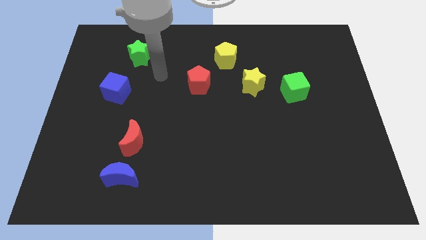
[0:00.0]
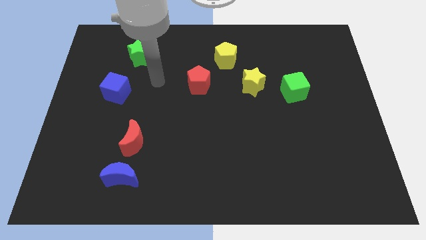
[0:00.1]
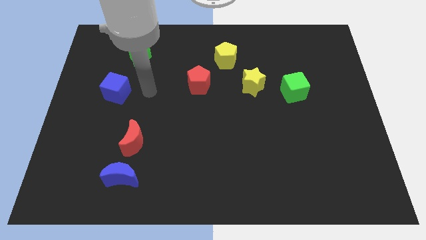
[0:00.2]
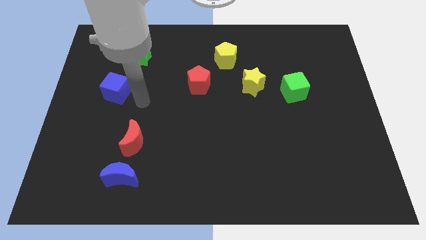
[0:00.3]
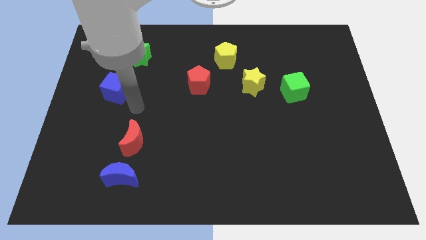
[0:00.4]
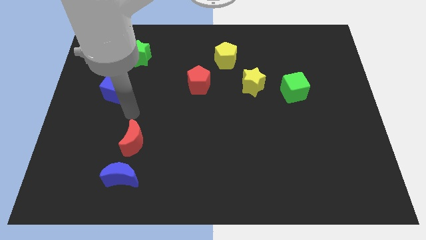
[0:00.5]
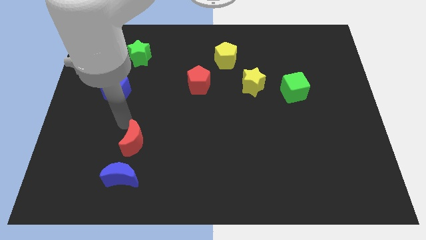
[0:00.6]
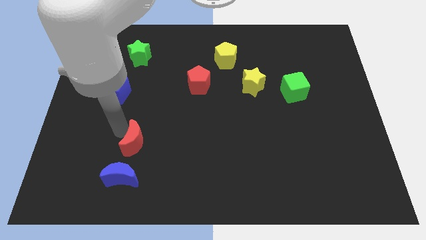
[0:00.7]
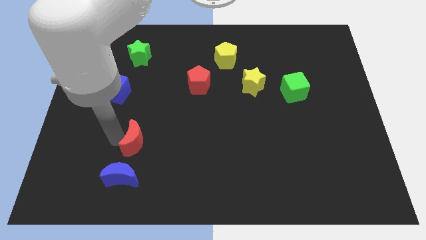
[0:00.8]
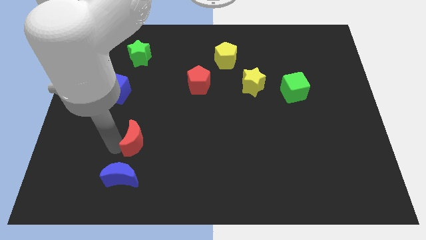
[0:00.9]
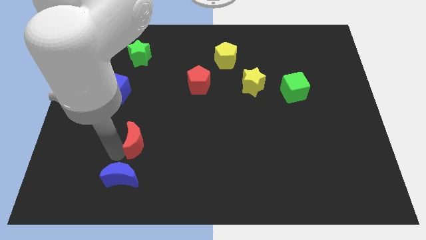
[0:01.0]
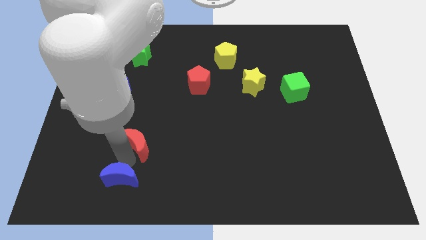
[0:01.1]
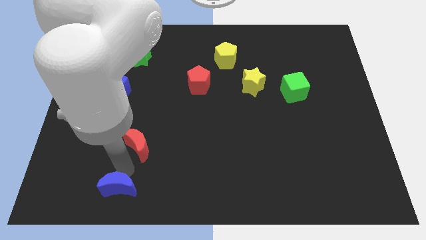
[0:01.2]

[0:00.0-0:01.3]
pull the red moon apart from the blue moon

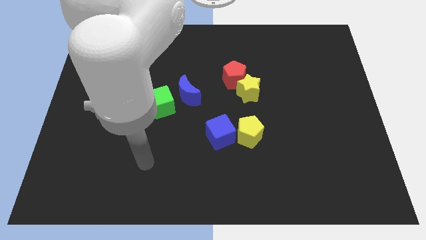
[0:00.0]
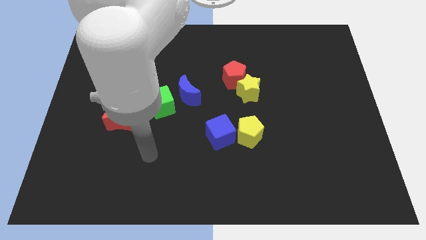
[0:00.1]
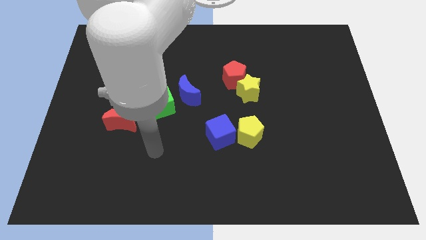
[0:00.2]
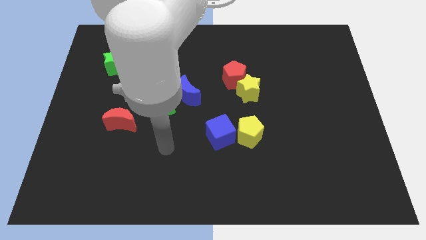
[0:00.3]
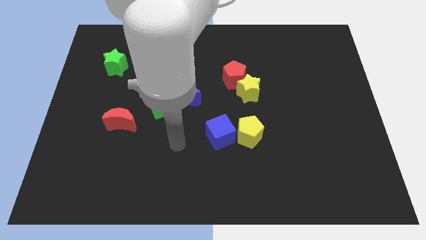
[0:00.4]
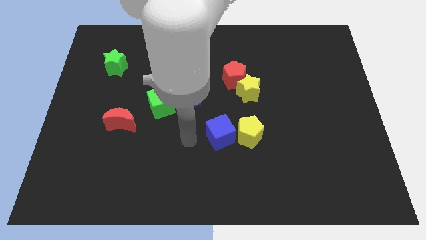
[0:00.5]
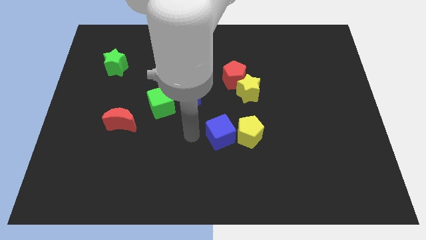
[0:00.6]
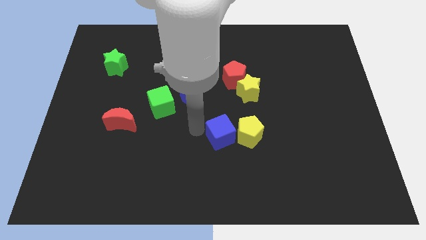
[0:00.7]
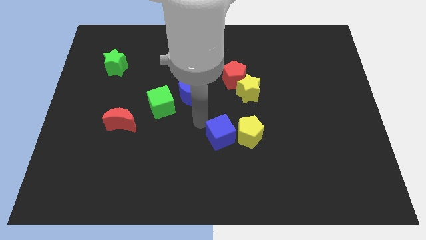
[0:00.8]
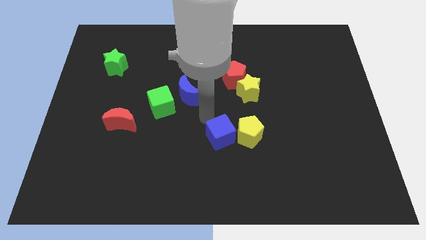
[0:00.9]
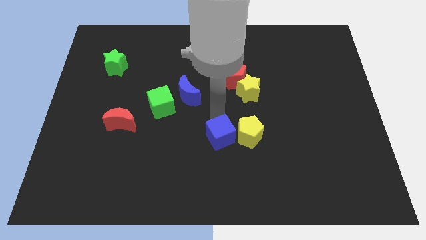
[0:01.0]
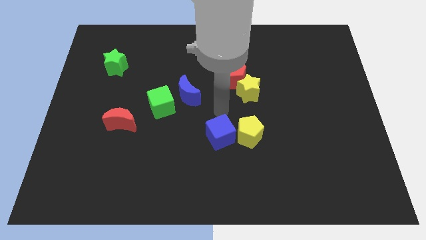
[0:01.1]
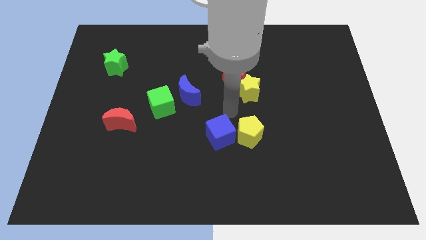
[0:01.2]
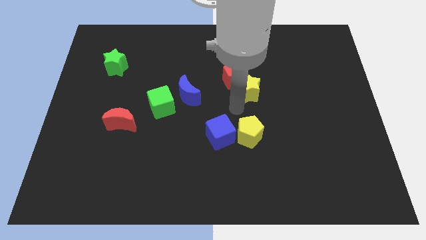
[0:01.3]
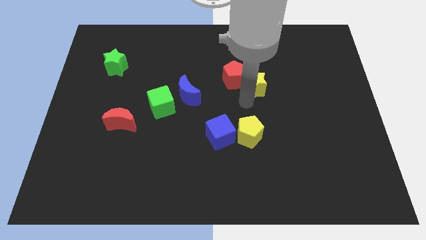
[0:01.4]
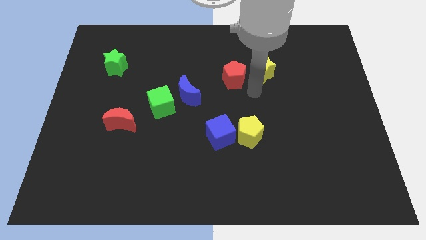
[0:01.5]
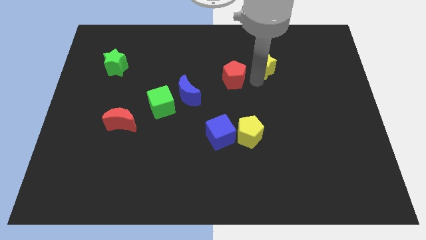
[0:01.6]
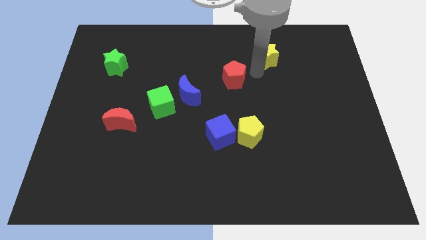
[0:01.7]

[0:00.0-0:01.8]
separate the red pentagon from the yellow star

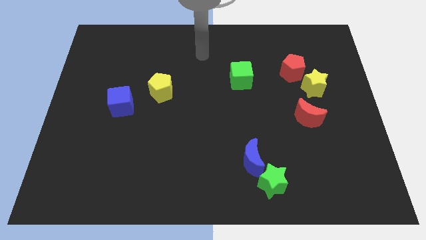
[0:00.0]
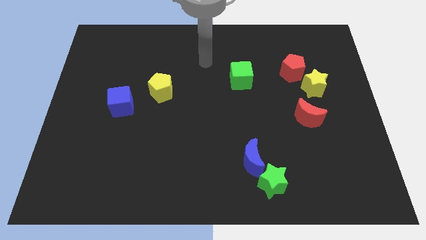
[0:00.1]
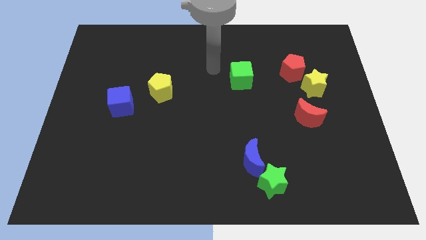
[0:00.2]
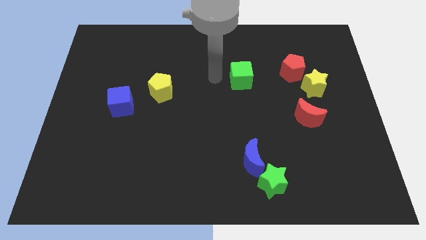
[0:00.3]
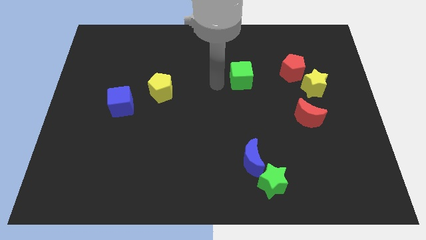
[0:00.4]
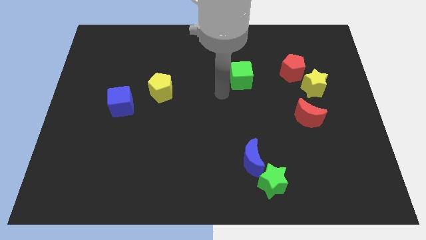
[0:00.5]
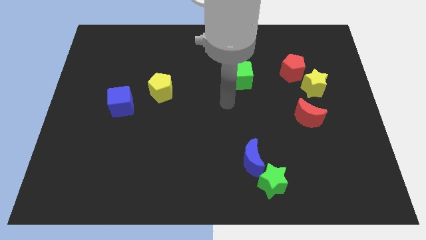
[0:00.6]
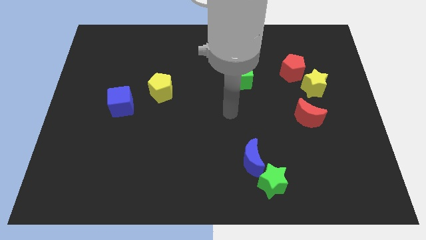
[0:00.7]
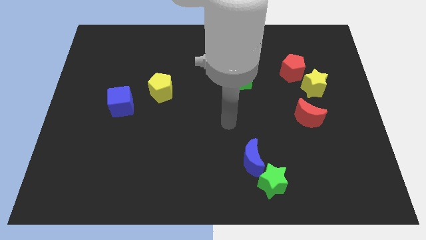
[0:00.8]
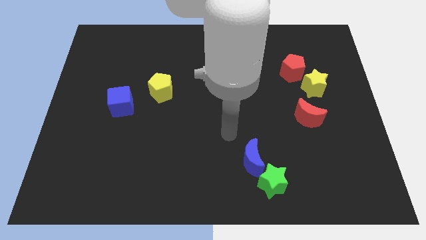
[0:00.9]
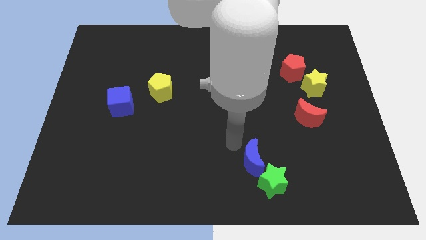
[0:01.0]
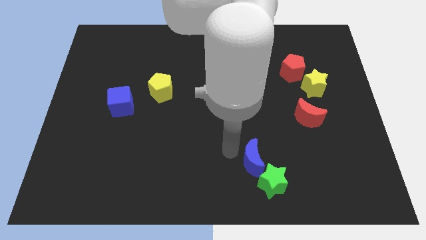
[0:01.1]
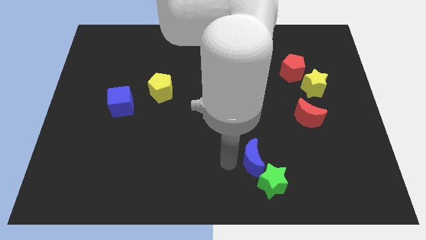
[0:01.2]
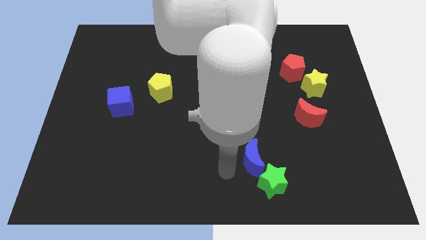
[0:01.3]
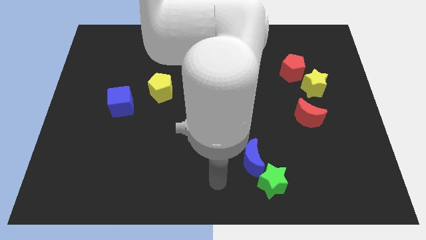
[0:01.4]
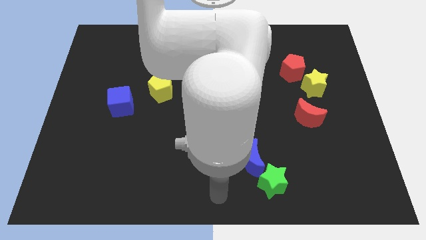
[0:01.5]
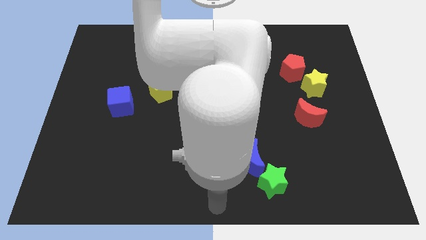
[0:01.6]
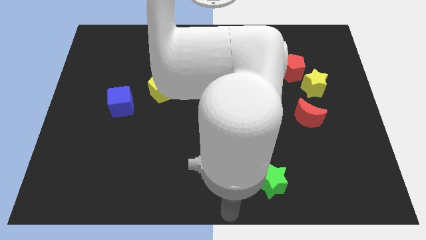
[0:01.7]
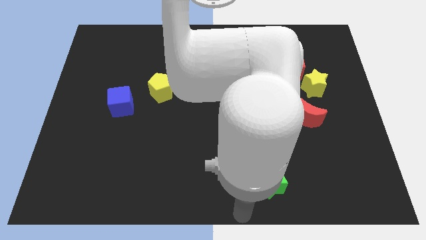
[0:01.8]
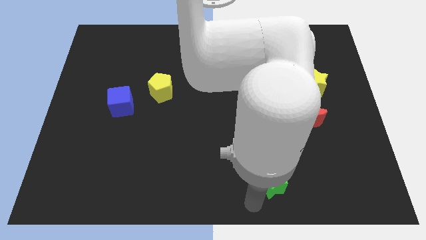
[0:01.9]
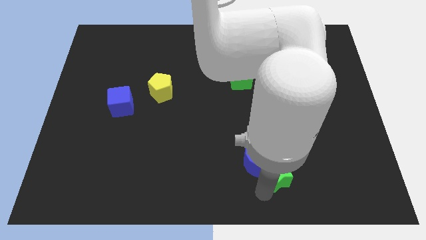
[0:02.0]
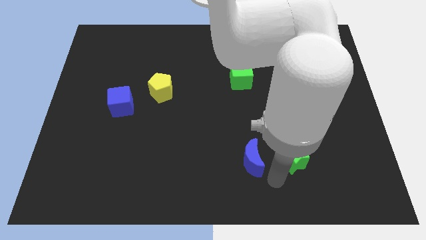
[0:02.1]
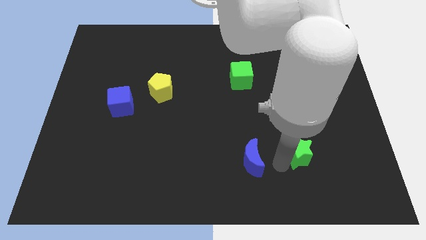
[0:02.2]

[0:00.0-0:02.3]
move the blue moon away from the green star

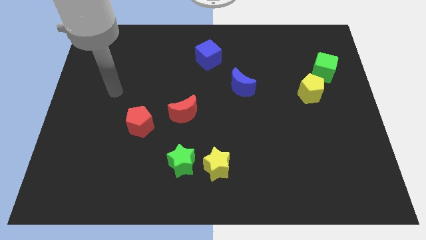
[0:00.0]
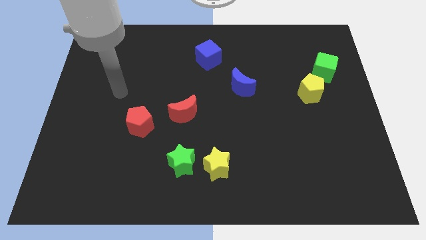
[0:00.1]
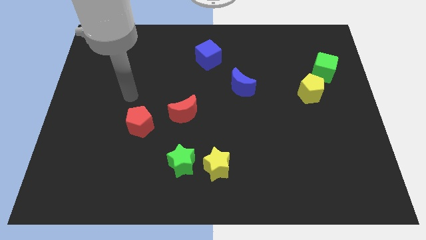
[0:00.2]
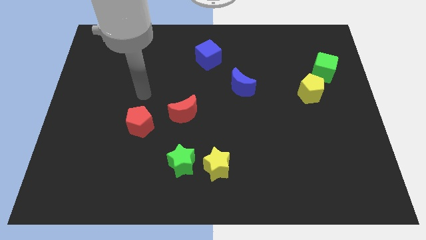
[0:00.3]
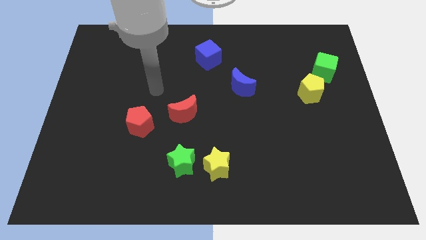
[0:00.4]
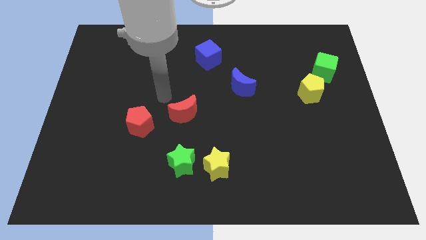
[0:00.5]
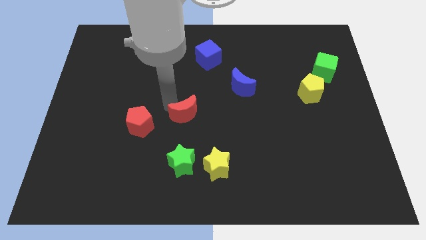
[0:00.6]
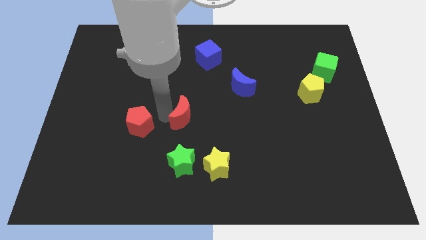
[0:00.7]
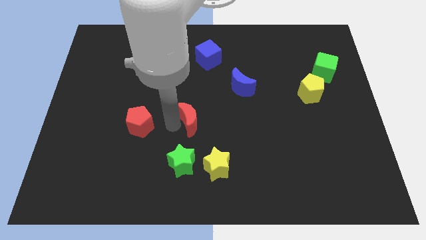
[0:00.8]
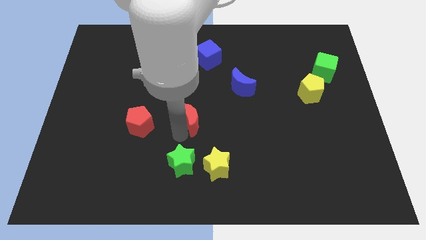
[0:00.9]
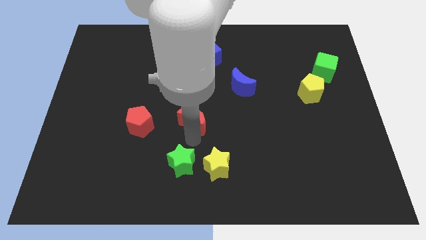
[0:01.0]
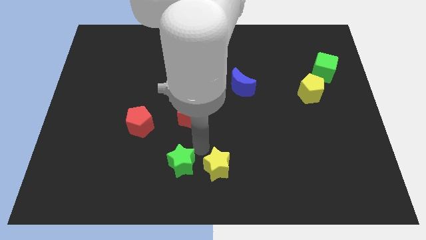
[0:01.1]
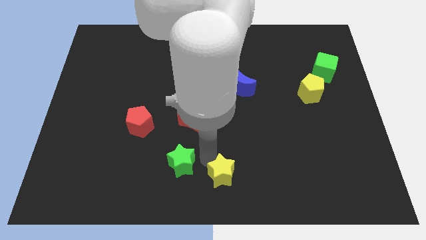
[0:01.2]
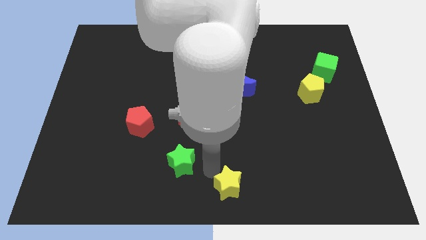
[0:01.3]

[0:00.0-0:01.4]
move the green star away from the yellow star

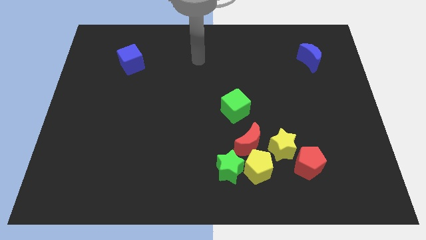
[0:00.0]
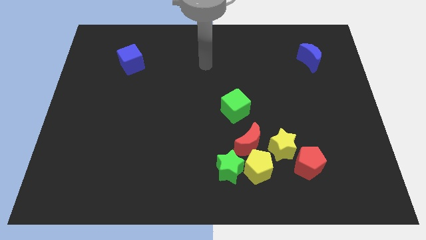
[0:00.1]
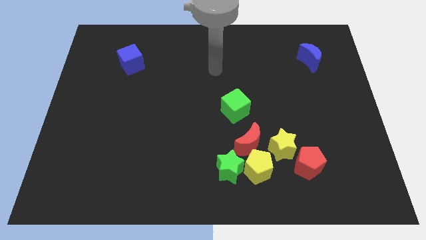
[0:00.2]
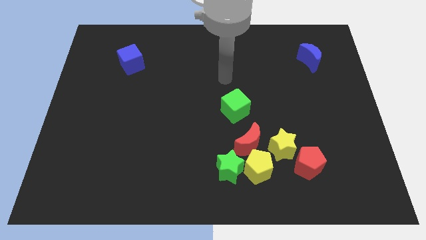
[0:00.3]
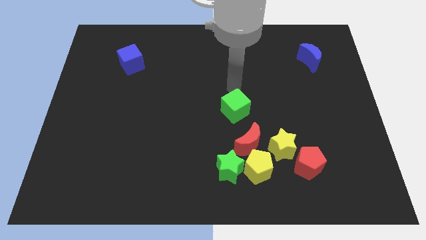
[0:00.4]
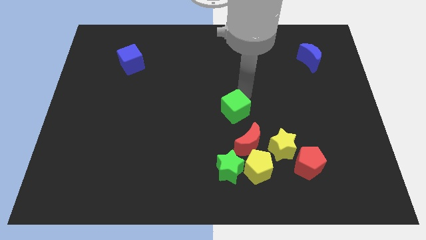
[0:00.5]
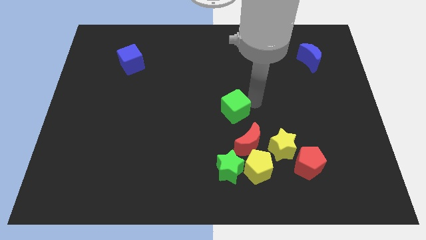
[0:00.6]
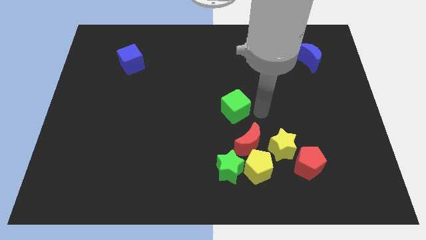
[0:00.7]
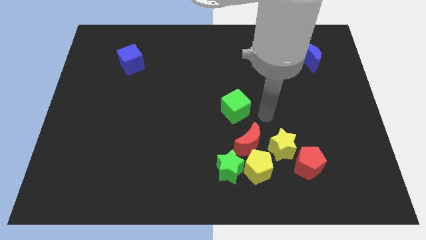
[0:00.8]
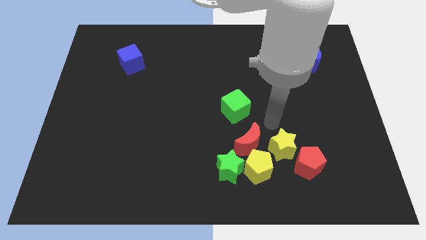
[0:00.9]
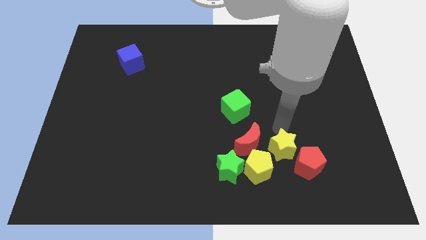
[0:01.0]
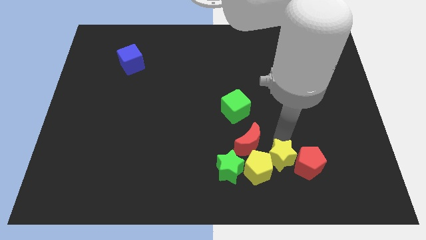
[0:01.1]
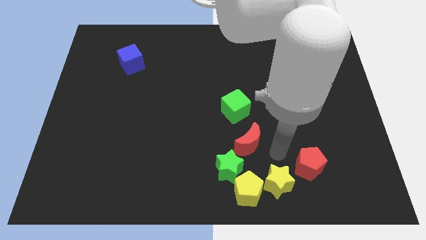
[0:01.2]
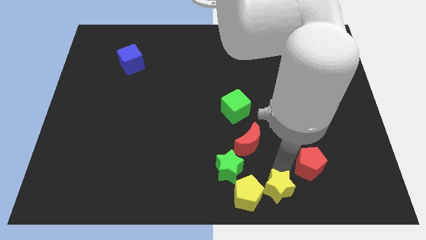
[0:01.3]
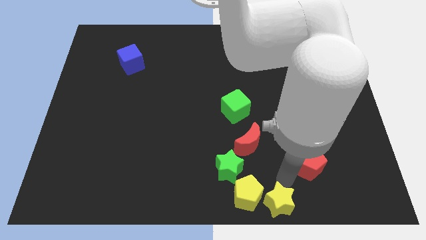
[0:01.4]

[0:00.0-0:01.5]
move the red pentagon away from the yellow star

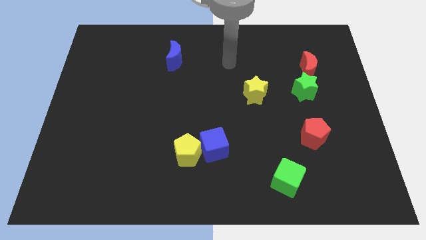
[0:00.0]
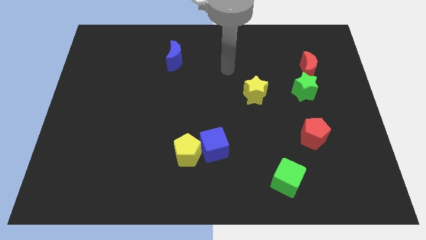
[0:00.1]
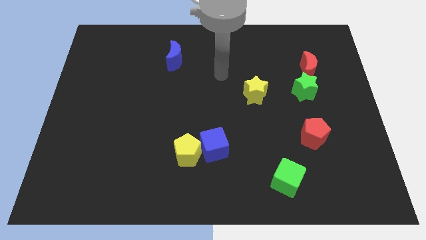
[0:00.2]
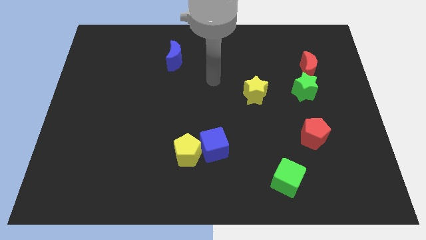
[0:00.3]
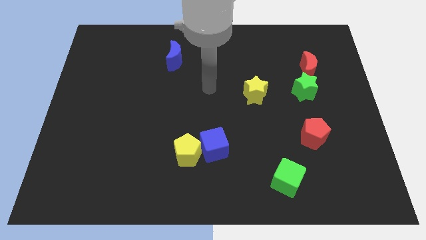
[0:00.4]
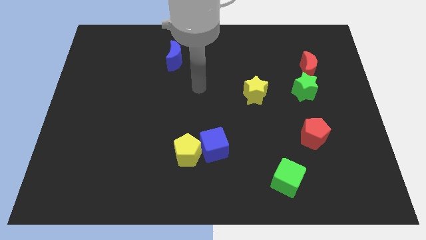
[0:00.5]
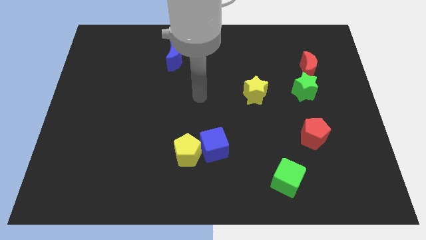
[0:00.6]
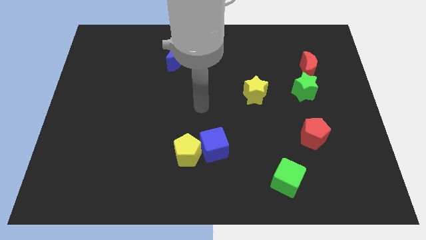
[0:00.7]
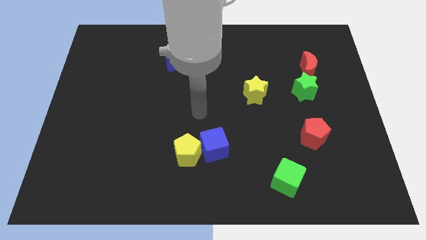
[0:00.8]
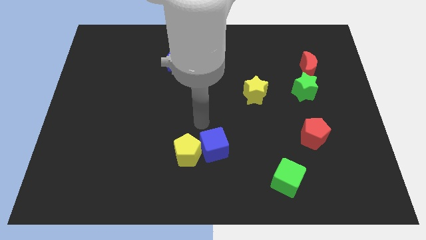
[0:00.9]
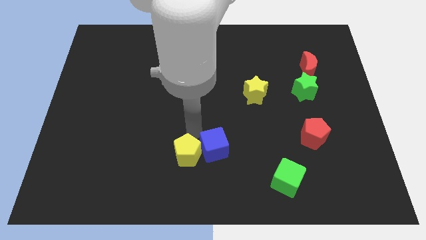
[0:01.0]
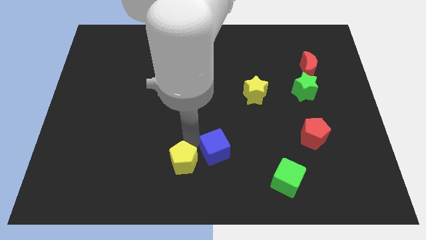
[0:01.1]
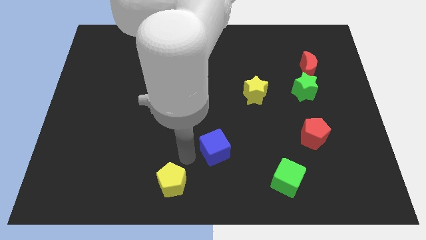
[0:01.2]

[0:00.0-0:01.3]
move the blue cube away from the yellow pentagon
